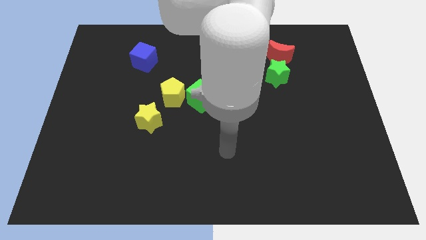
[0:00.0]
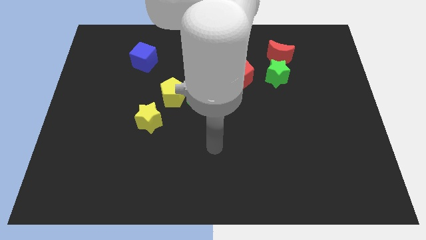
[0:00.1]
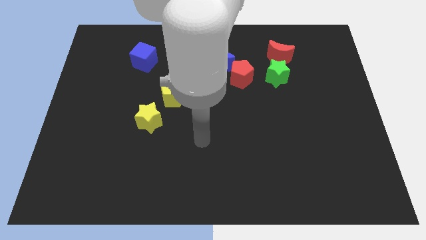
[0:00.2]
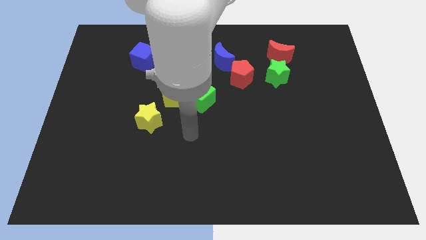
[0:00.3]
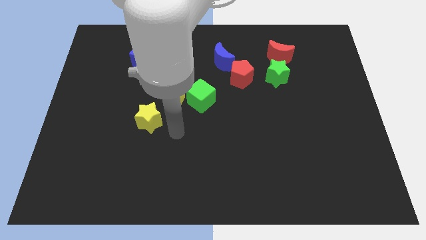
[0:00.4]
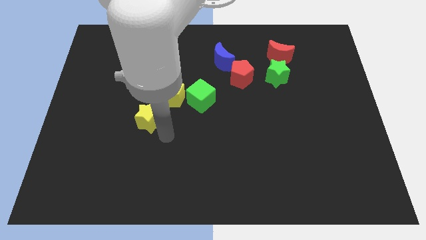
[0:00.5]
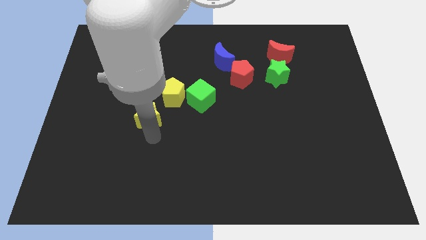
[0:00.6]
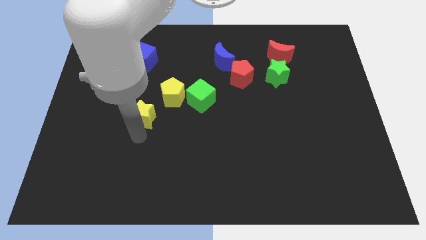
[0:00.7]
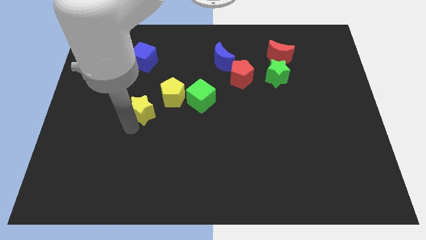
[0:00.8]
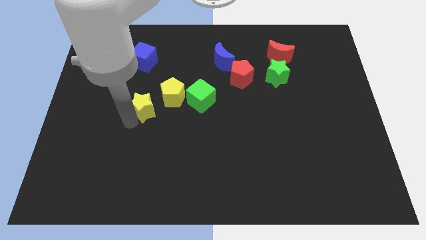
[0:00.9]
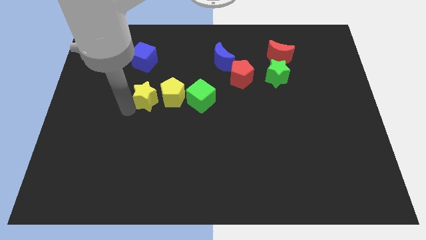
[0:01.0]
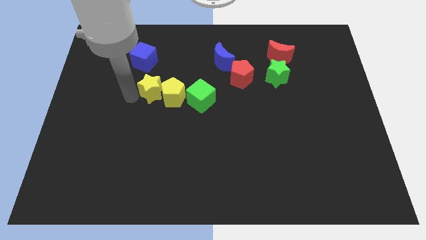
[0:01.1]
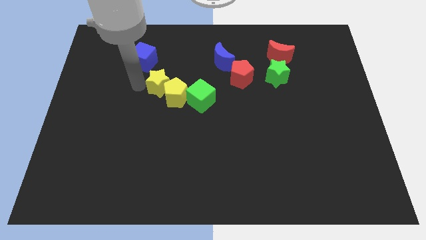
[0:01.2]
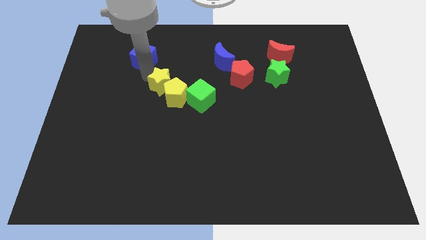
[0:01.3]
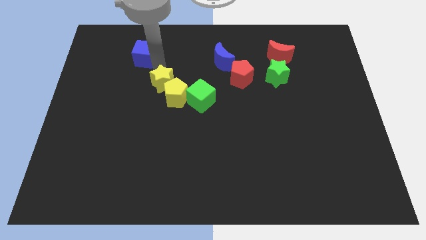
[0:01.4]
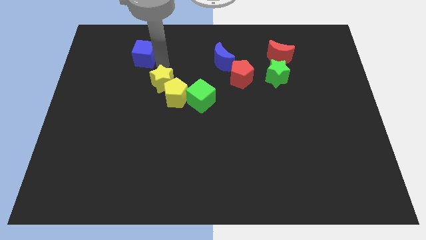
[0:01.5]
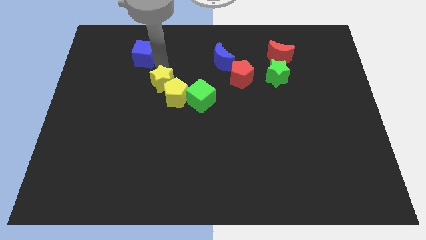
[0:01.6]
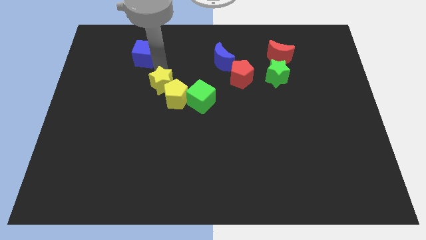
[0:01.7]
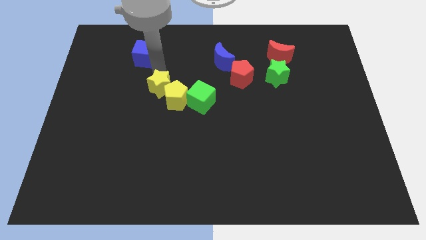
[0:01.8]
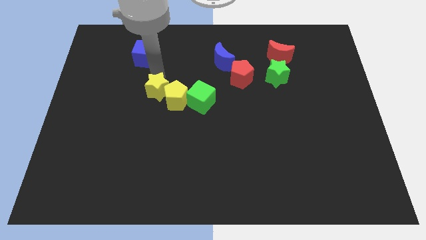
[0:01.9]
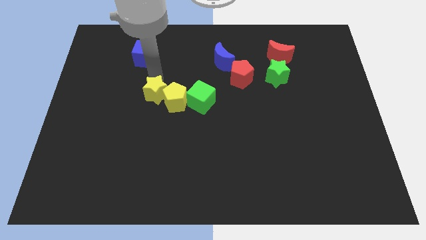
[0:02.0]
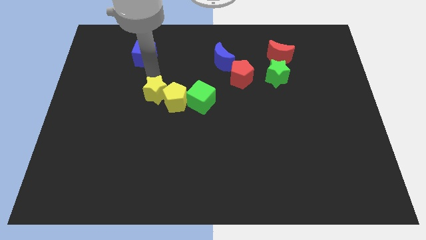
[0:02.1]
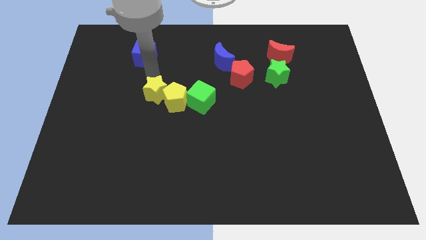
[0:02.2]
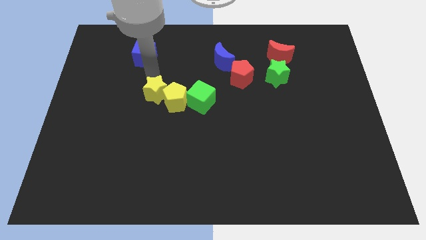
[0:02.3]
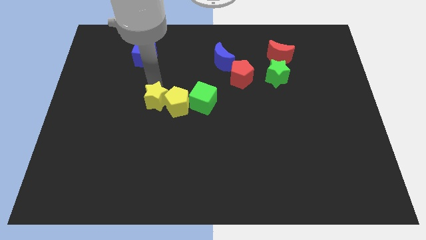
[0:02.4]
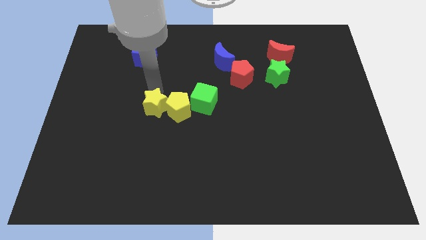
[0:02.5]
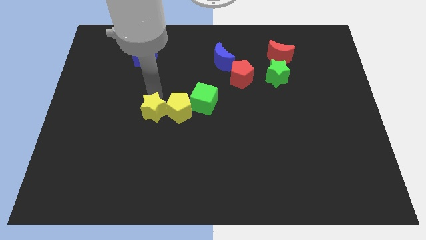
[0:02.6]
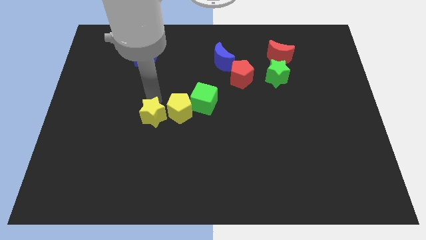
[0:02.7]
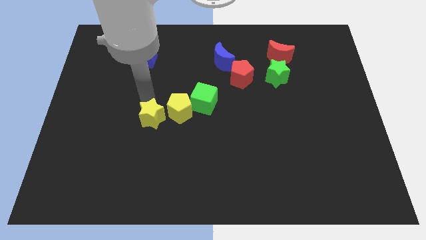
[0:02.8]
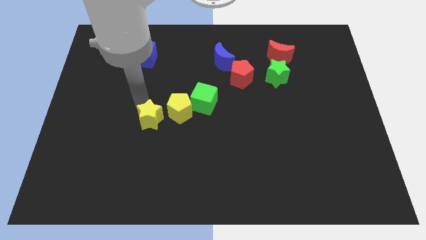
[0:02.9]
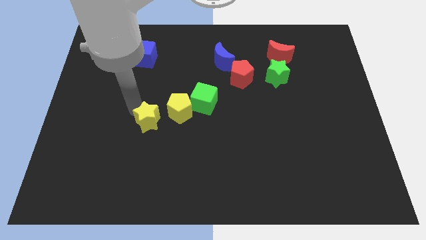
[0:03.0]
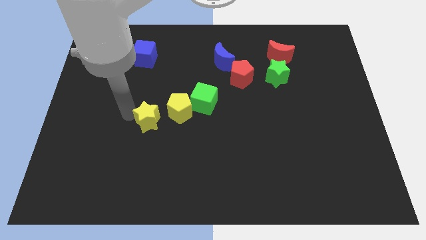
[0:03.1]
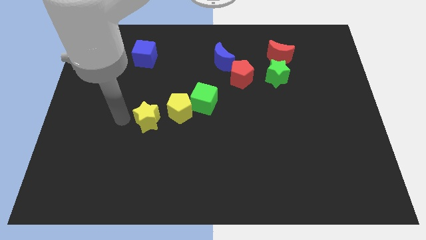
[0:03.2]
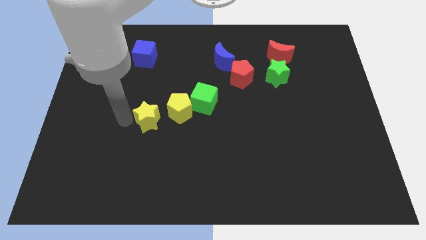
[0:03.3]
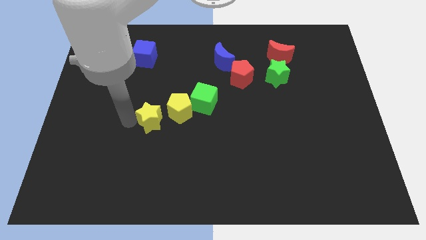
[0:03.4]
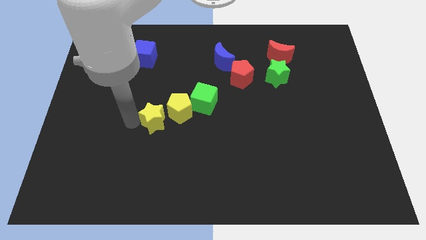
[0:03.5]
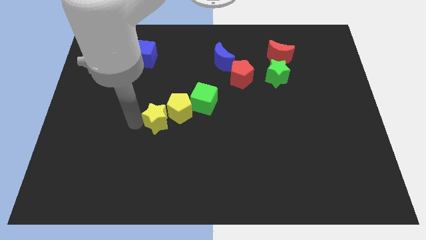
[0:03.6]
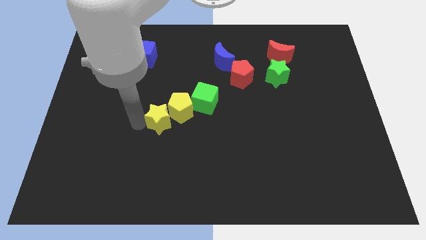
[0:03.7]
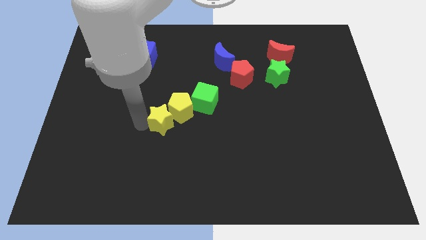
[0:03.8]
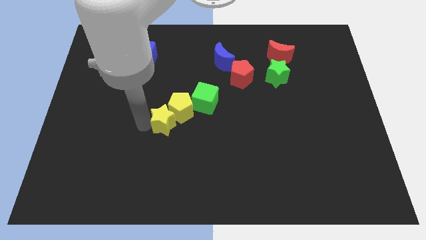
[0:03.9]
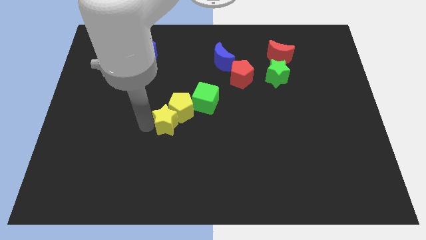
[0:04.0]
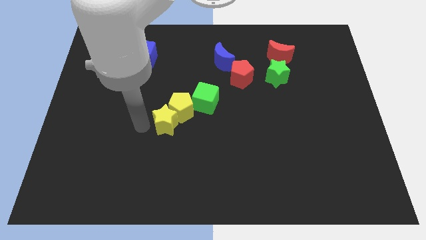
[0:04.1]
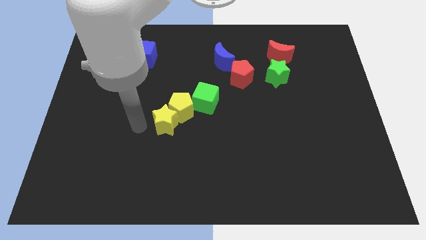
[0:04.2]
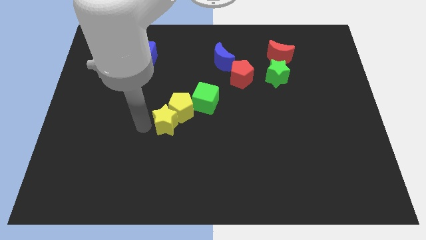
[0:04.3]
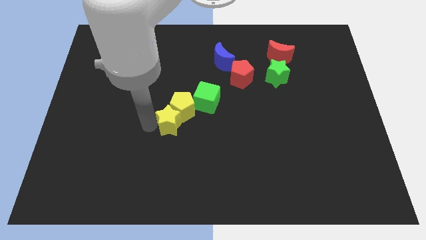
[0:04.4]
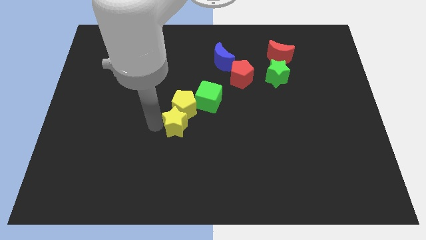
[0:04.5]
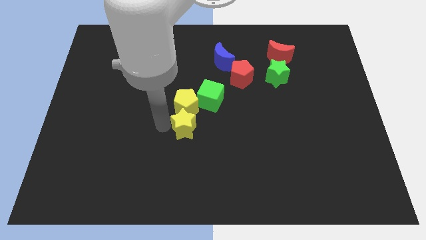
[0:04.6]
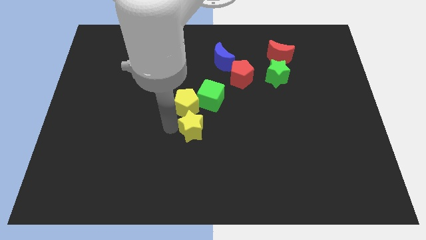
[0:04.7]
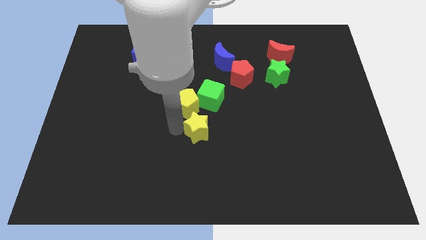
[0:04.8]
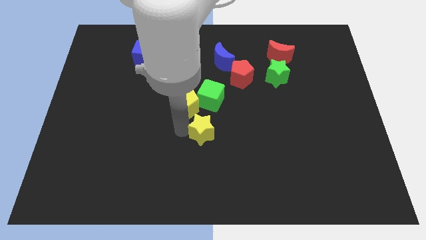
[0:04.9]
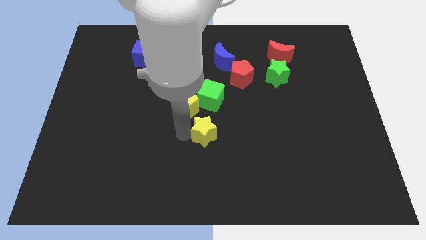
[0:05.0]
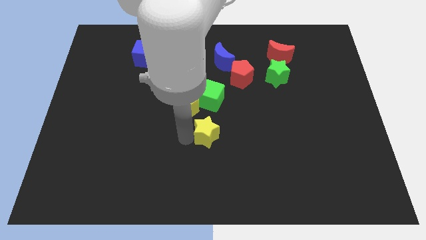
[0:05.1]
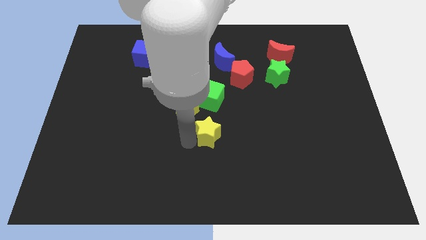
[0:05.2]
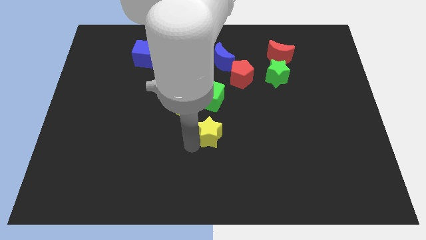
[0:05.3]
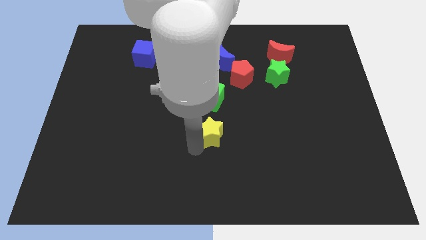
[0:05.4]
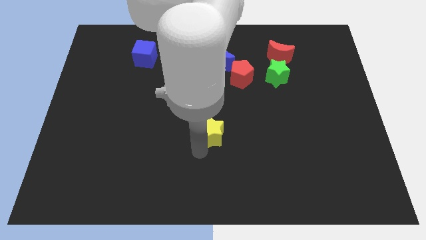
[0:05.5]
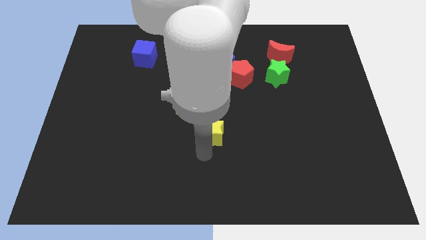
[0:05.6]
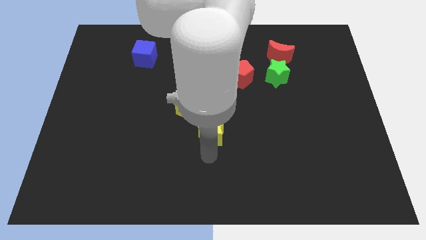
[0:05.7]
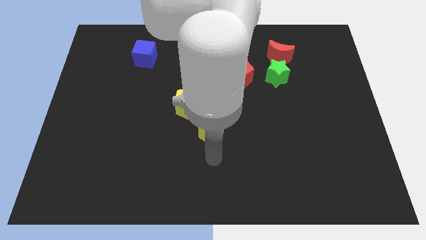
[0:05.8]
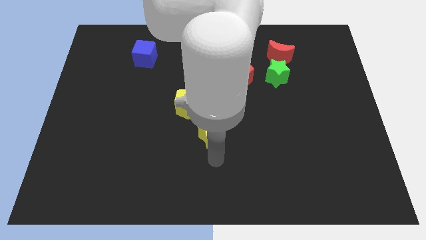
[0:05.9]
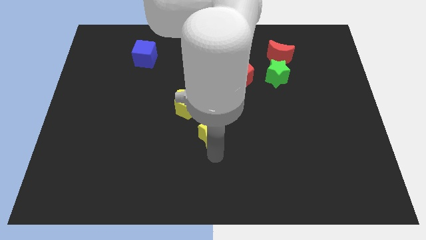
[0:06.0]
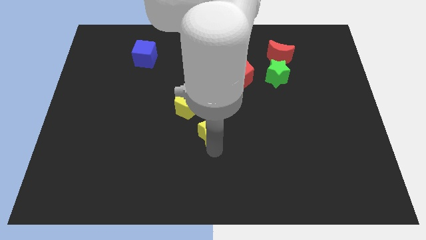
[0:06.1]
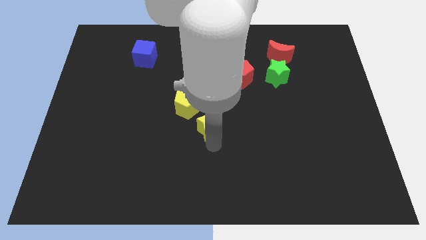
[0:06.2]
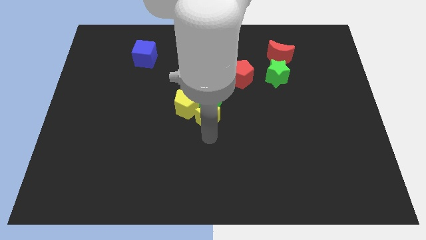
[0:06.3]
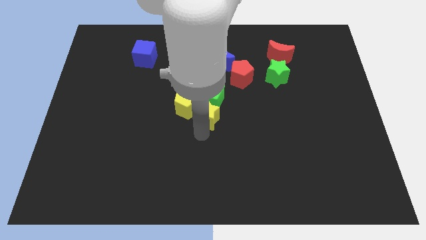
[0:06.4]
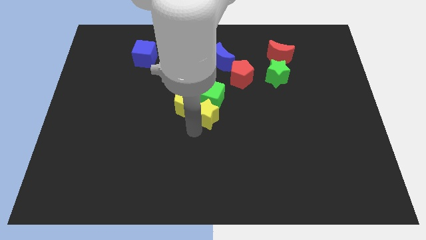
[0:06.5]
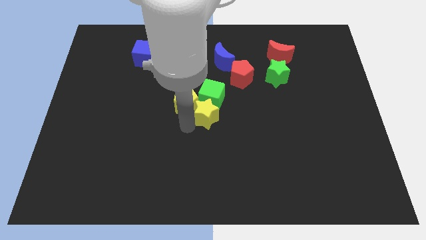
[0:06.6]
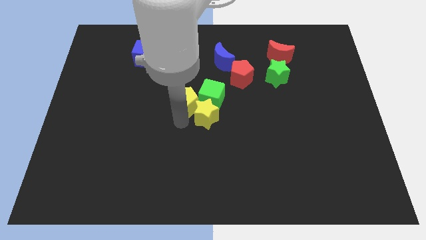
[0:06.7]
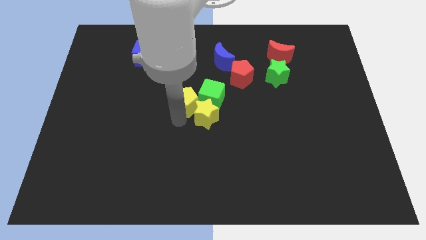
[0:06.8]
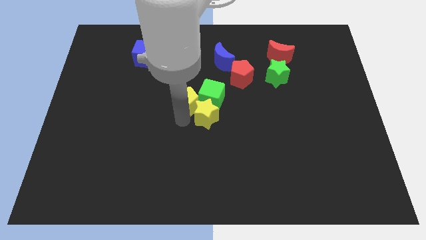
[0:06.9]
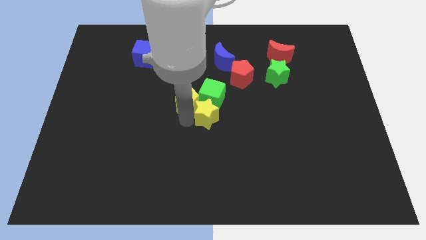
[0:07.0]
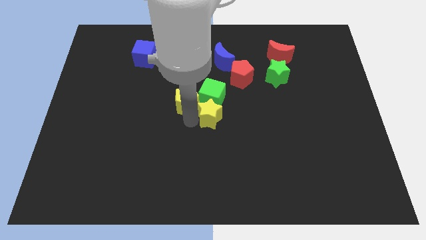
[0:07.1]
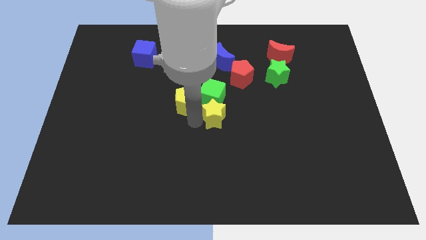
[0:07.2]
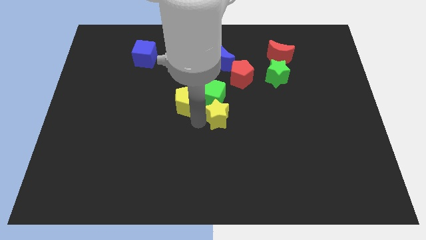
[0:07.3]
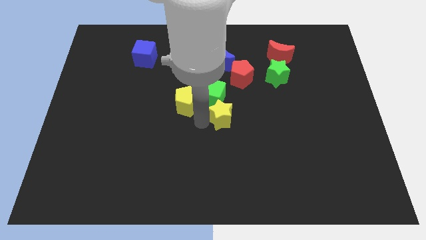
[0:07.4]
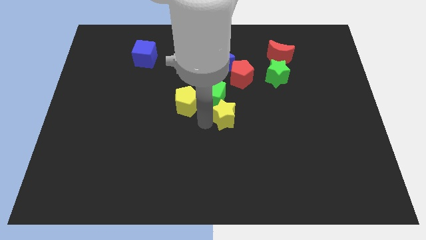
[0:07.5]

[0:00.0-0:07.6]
slide the yellow star to the bottom side of the red pentagon
